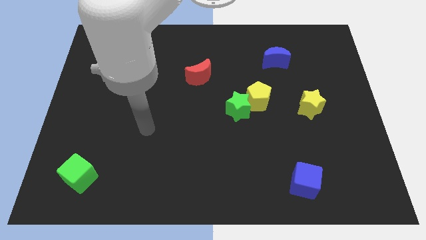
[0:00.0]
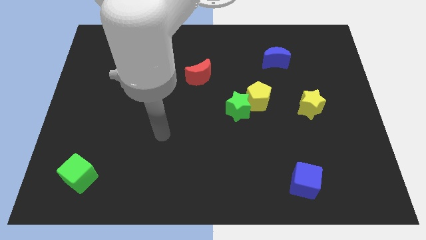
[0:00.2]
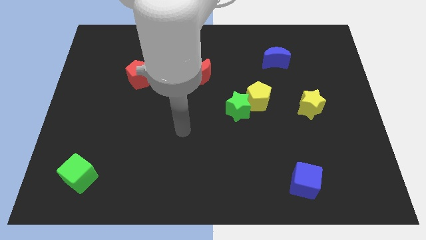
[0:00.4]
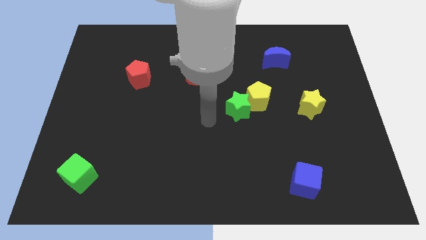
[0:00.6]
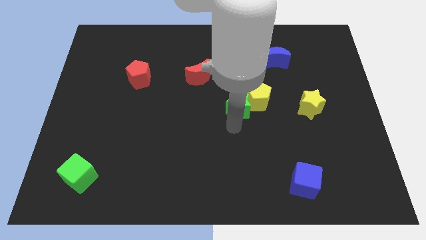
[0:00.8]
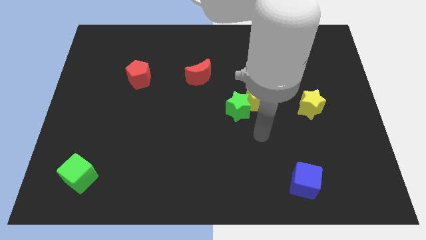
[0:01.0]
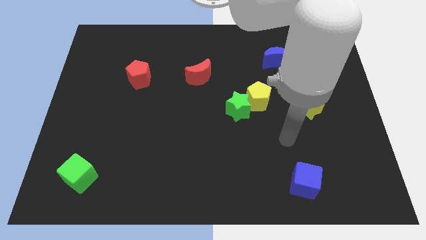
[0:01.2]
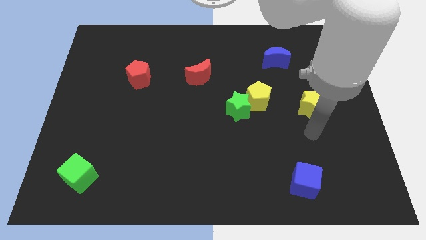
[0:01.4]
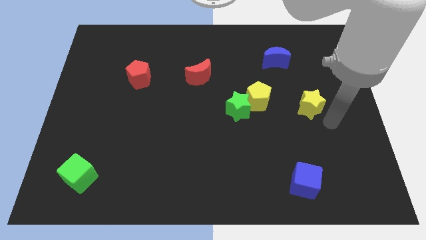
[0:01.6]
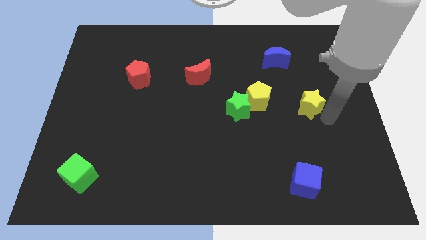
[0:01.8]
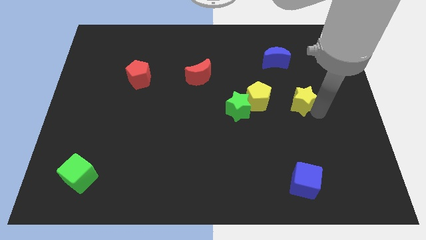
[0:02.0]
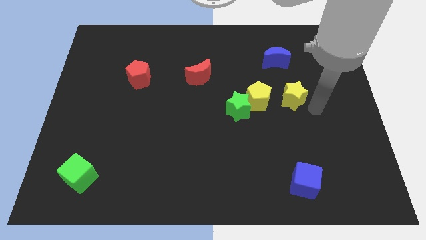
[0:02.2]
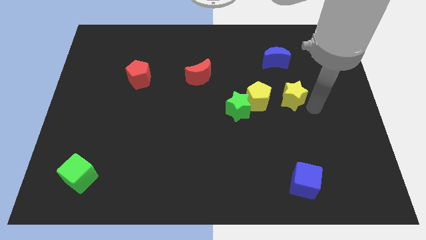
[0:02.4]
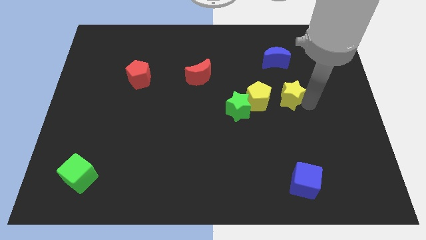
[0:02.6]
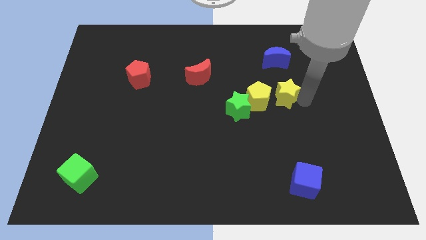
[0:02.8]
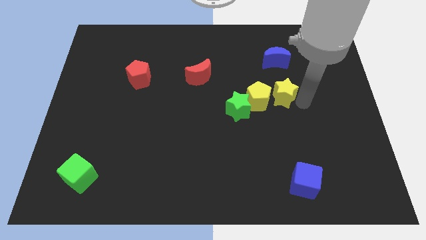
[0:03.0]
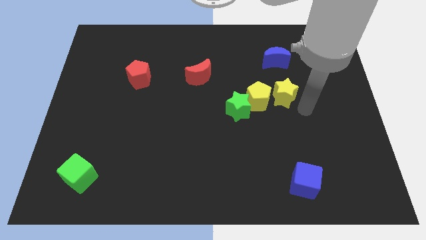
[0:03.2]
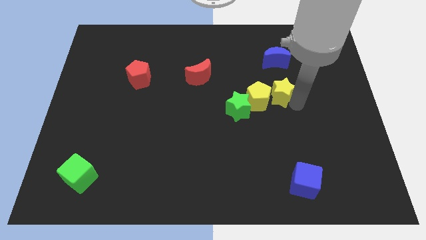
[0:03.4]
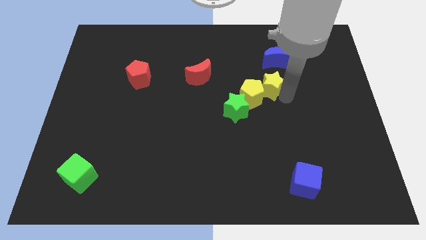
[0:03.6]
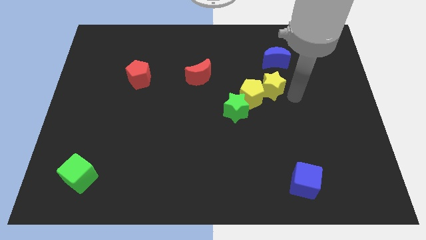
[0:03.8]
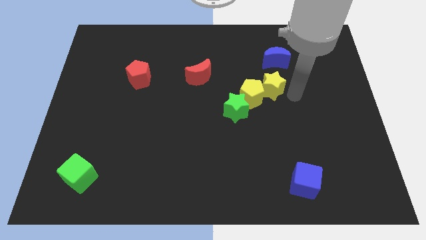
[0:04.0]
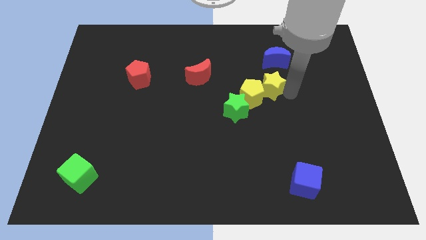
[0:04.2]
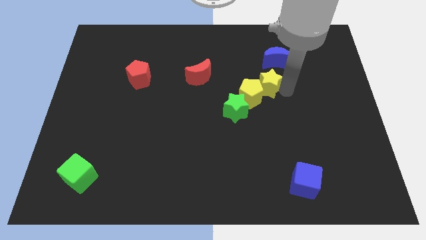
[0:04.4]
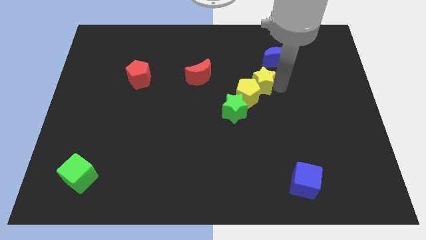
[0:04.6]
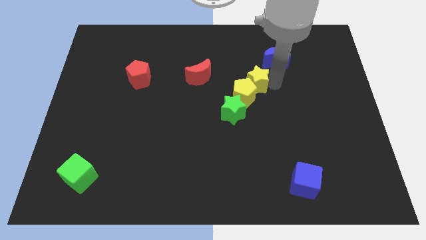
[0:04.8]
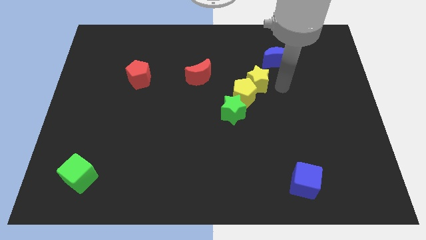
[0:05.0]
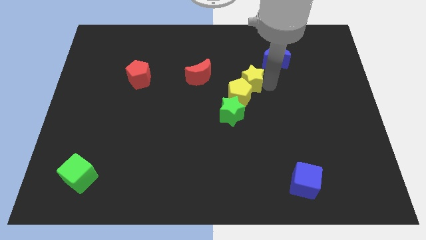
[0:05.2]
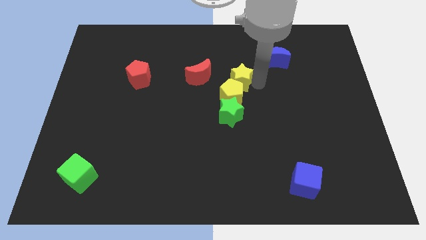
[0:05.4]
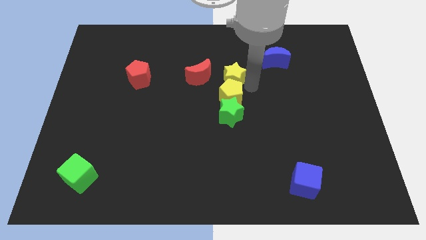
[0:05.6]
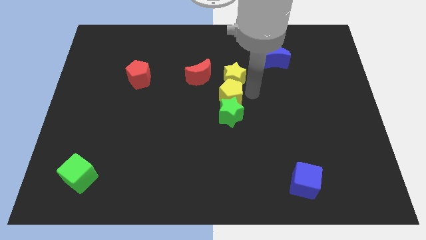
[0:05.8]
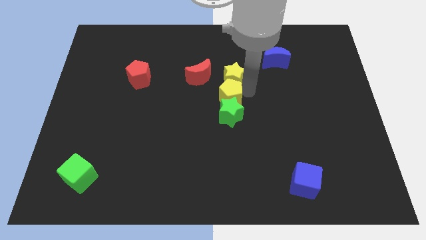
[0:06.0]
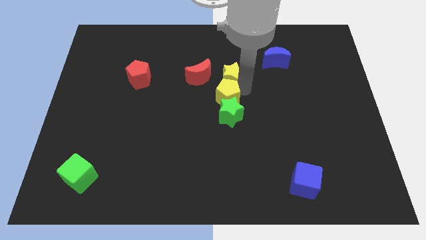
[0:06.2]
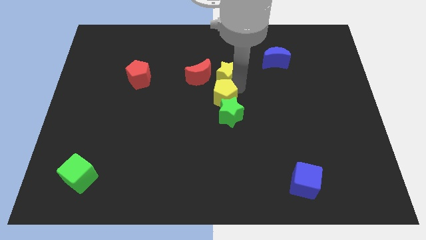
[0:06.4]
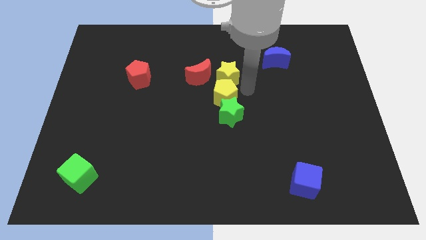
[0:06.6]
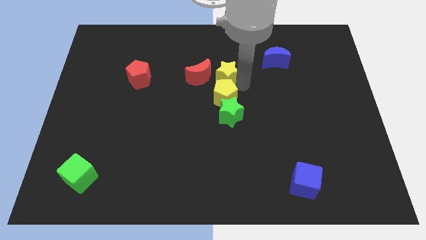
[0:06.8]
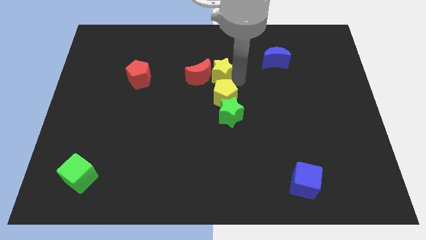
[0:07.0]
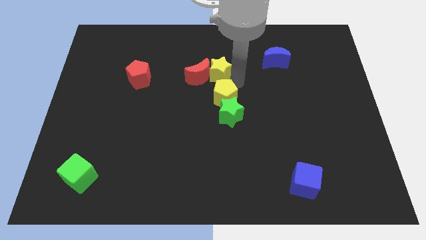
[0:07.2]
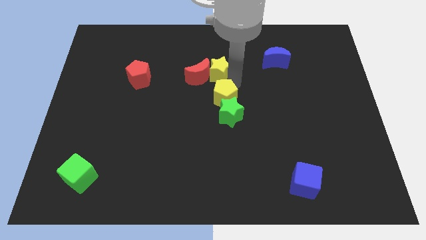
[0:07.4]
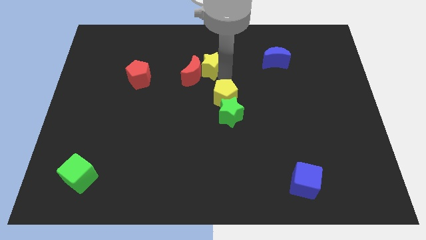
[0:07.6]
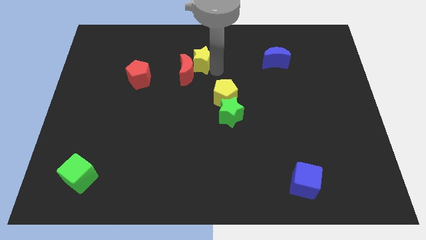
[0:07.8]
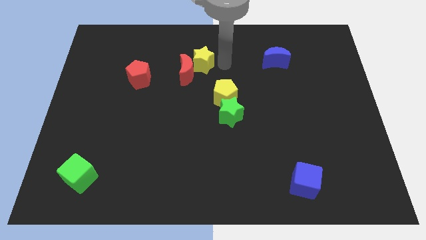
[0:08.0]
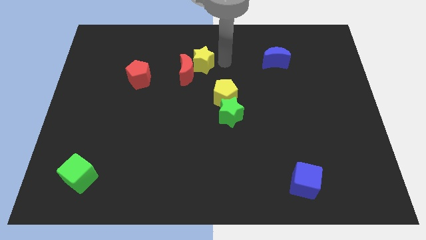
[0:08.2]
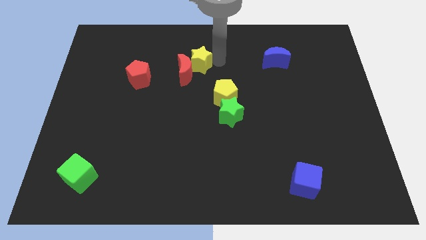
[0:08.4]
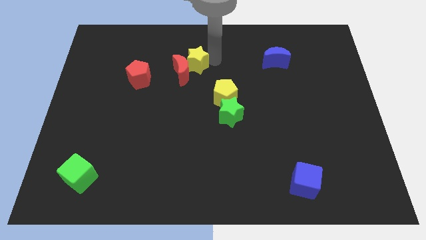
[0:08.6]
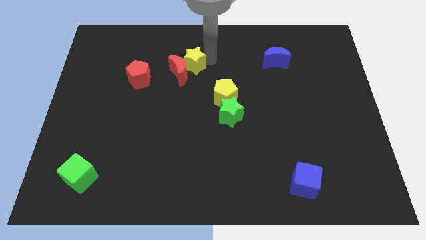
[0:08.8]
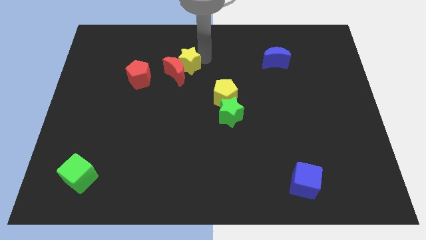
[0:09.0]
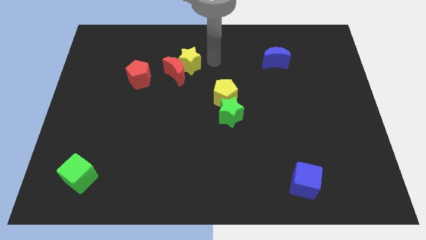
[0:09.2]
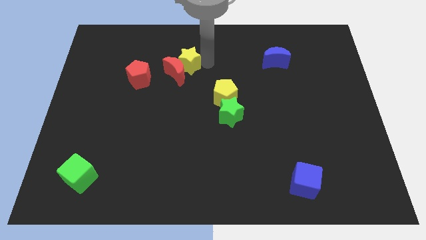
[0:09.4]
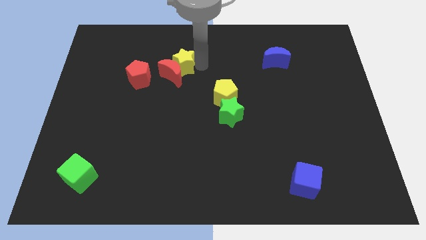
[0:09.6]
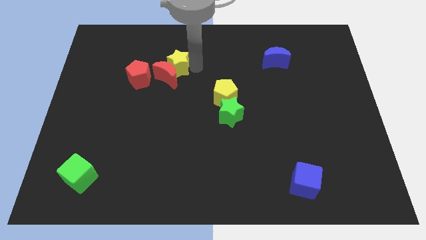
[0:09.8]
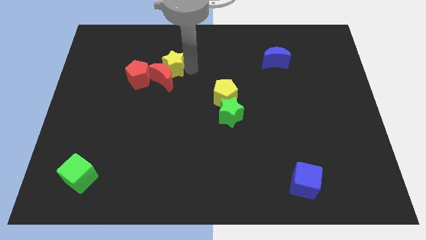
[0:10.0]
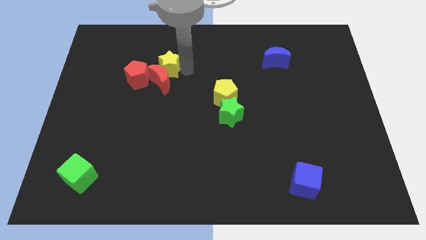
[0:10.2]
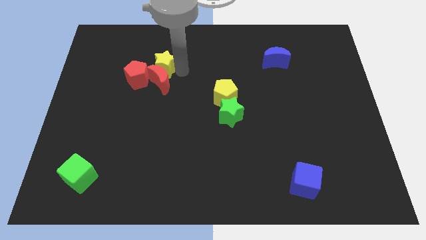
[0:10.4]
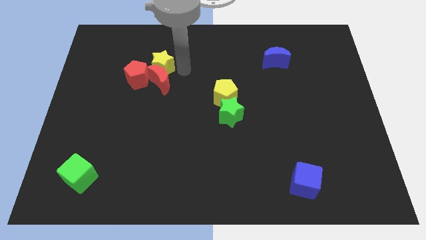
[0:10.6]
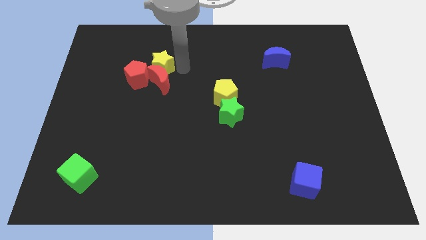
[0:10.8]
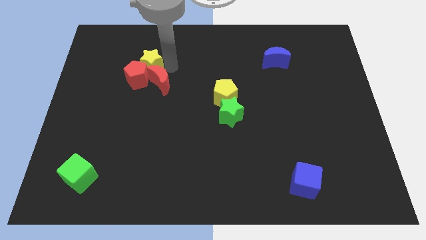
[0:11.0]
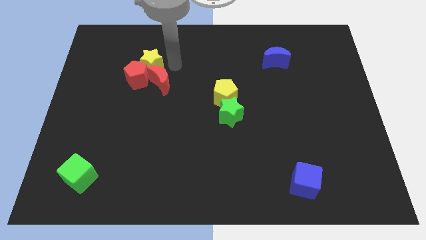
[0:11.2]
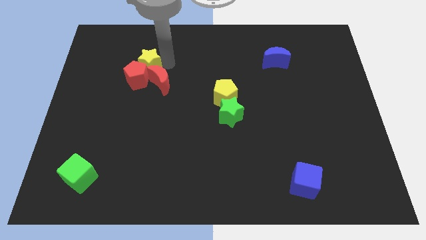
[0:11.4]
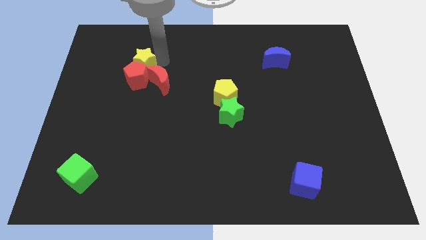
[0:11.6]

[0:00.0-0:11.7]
put the yellow star to the top left of the red pentagon

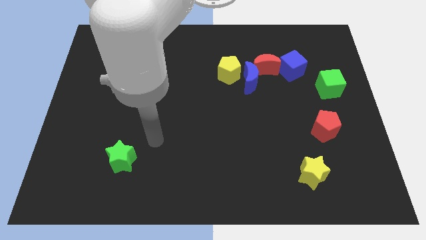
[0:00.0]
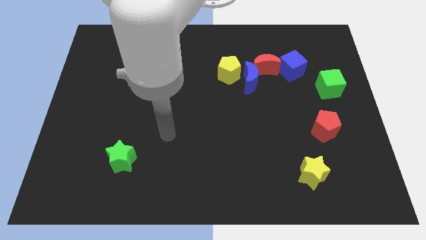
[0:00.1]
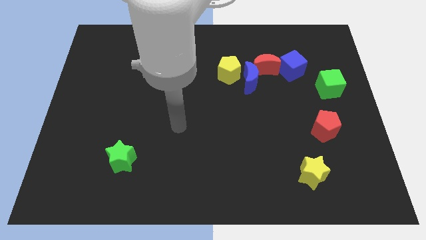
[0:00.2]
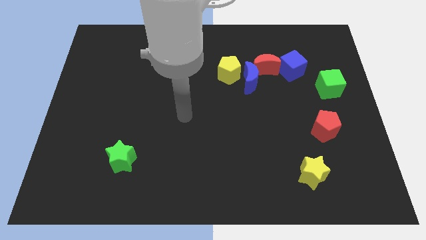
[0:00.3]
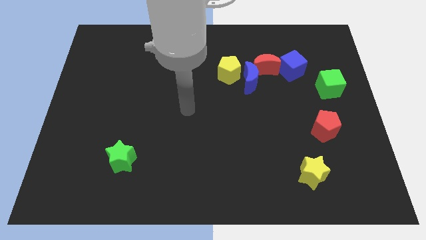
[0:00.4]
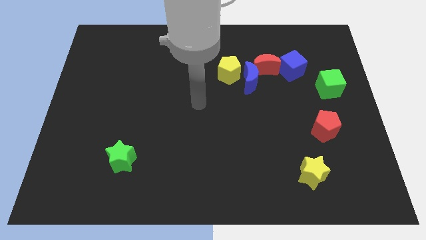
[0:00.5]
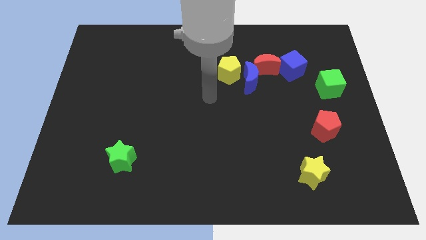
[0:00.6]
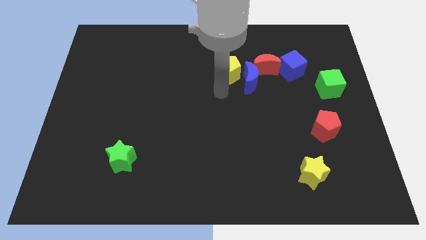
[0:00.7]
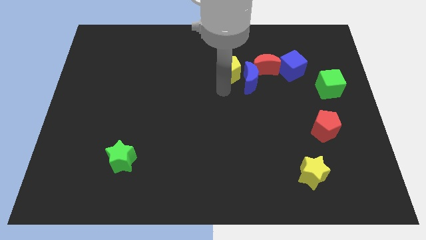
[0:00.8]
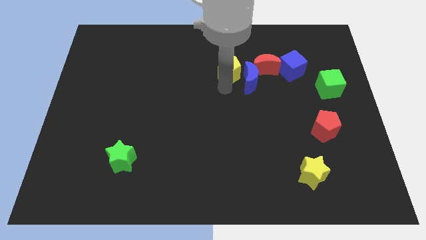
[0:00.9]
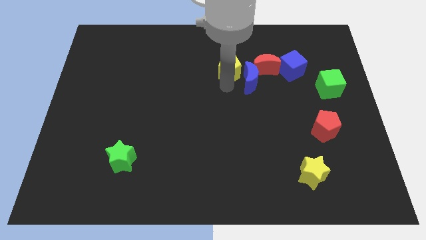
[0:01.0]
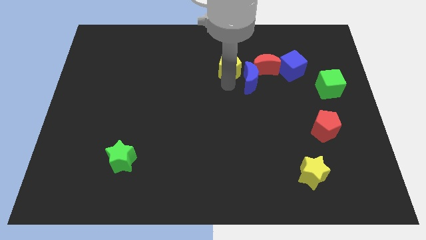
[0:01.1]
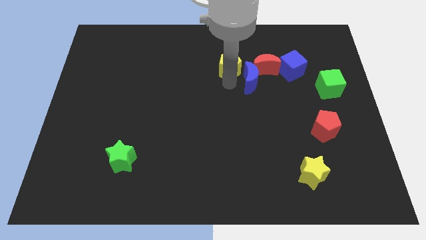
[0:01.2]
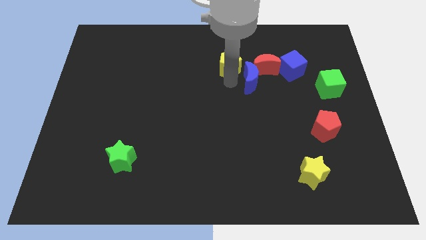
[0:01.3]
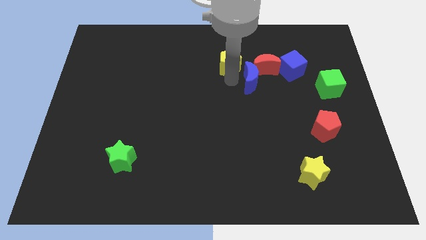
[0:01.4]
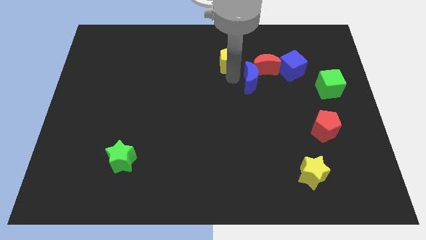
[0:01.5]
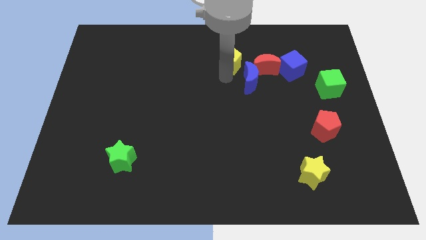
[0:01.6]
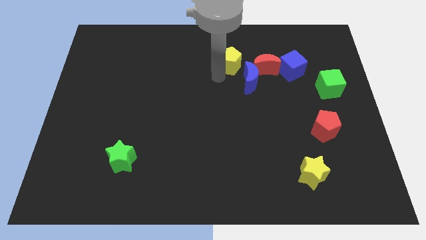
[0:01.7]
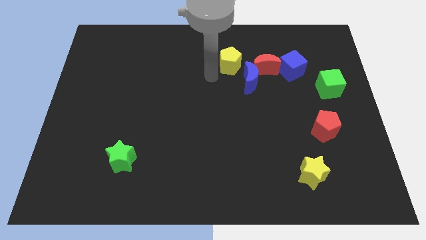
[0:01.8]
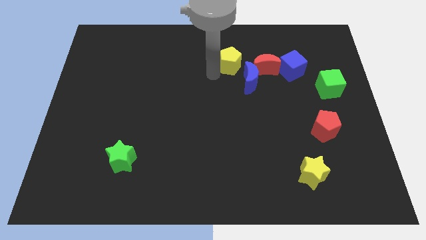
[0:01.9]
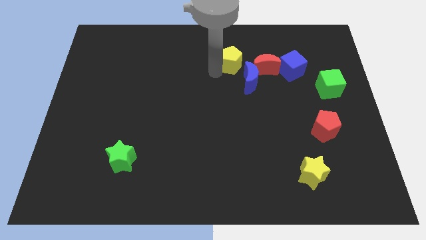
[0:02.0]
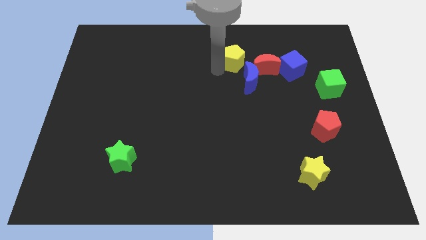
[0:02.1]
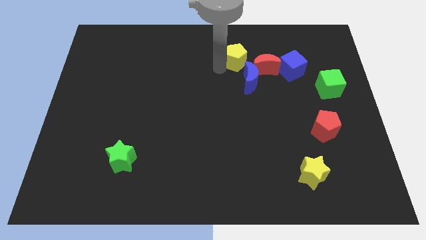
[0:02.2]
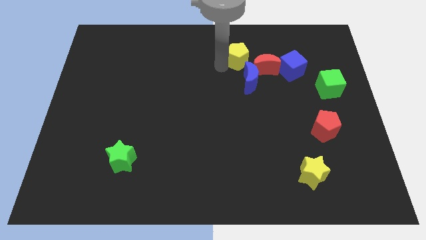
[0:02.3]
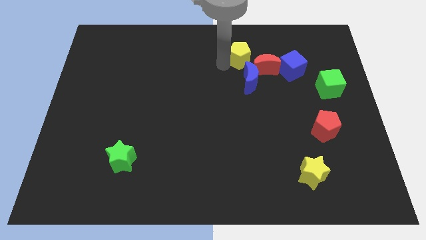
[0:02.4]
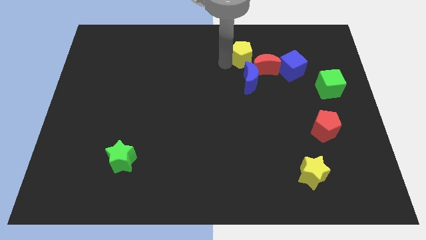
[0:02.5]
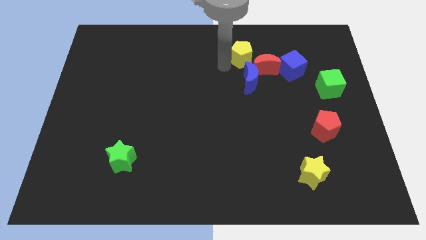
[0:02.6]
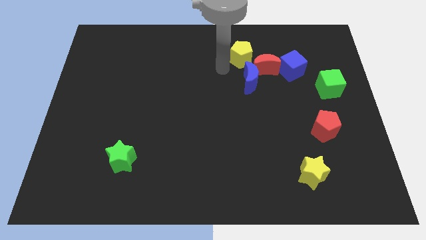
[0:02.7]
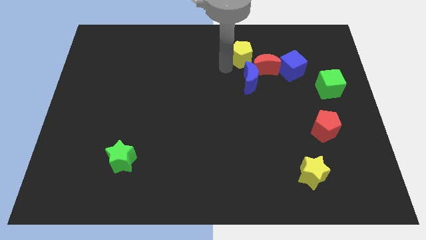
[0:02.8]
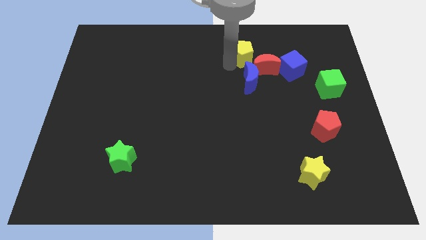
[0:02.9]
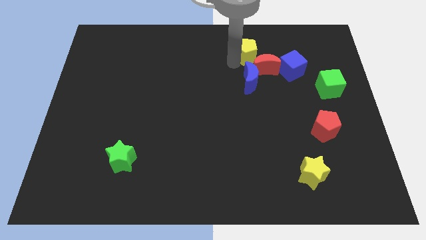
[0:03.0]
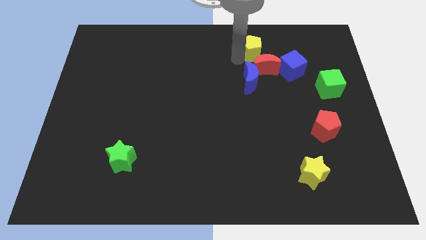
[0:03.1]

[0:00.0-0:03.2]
slide the yellow pentagon diagonally up and to the left of the blue cube
